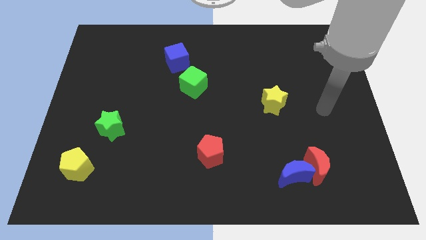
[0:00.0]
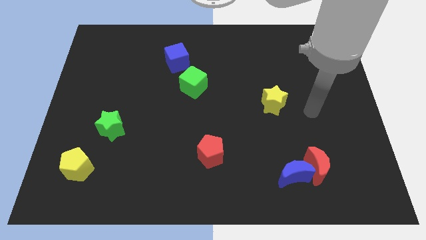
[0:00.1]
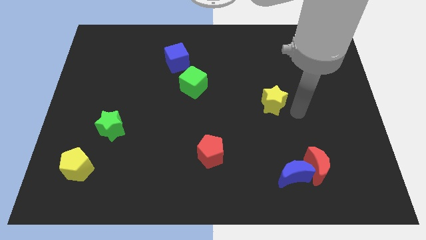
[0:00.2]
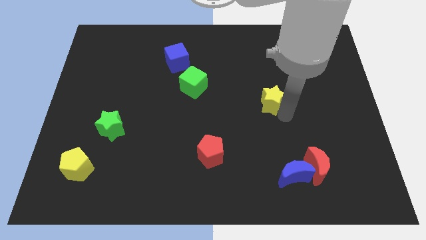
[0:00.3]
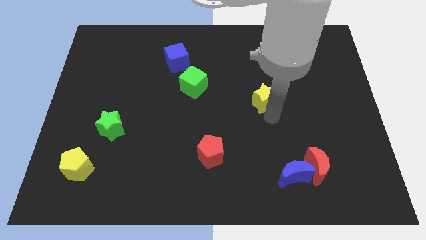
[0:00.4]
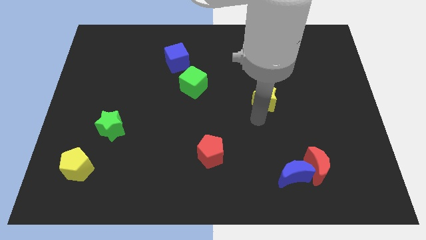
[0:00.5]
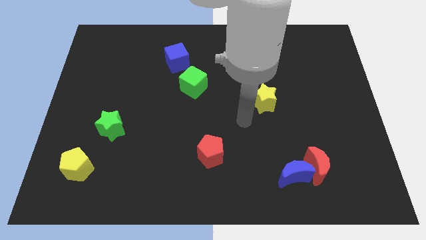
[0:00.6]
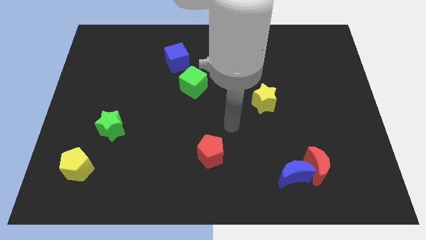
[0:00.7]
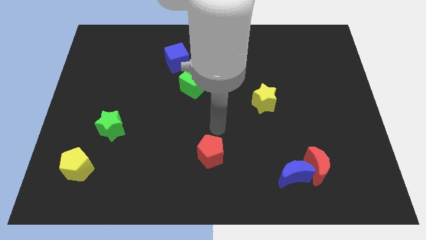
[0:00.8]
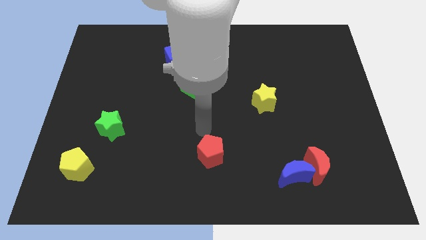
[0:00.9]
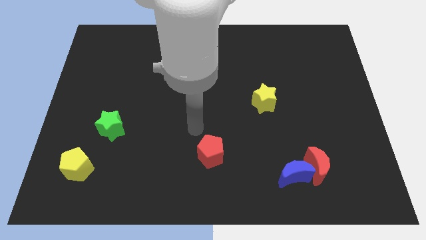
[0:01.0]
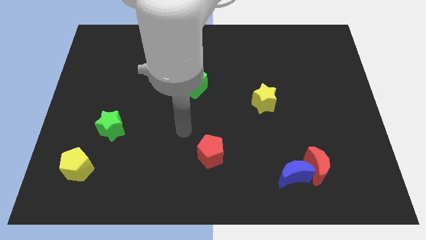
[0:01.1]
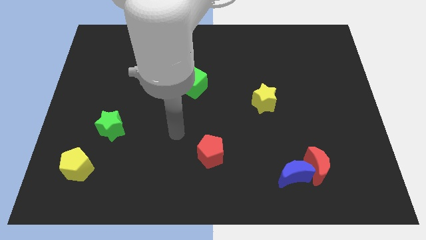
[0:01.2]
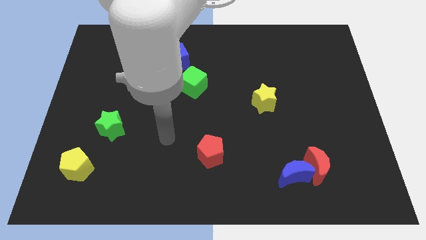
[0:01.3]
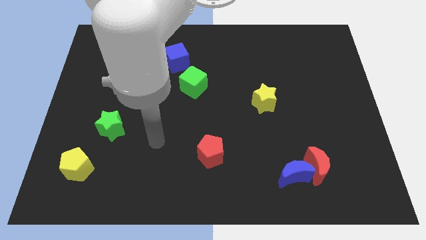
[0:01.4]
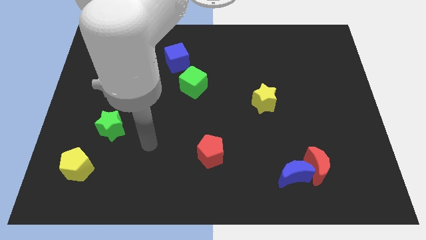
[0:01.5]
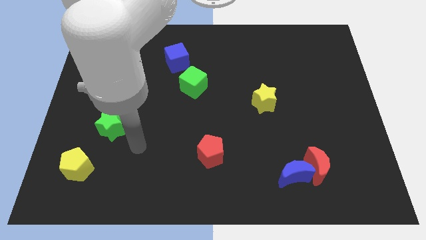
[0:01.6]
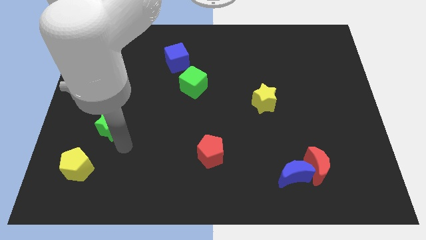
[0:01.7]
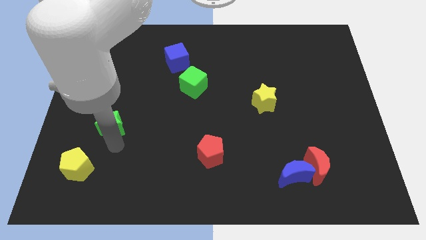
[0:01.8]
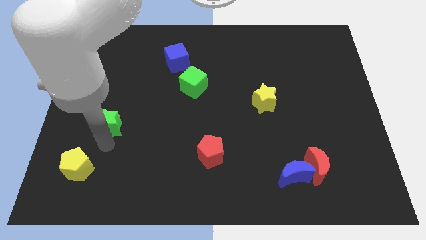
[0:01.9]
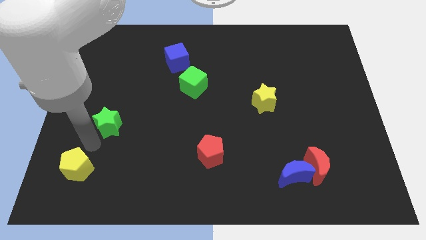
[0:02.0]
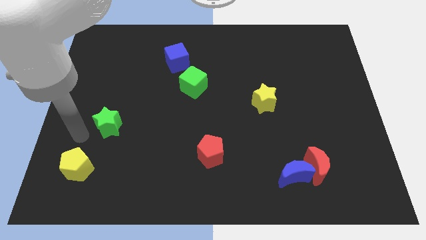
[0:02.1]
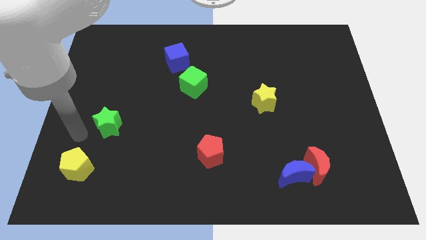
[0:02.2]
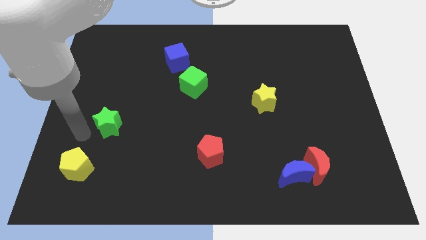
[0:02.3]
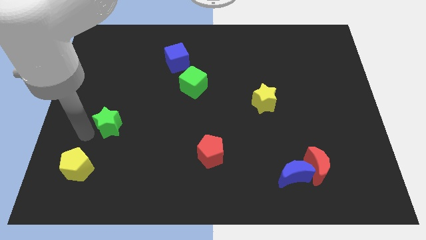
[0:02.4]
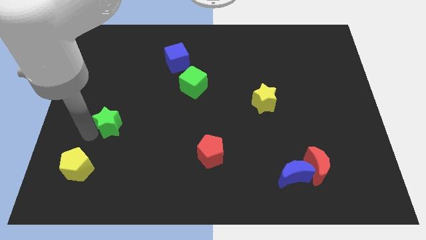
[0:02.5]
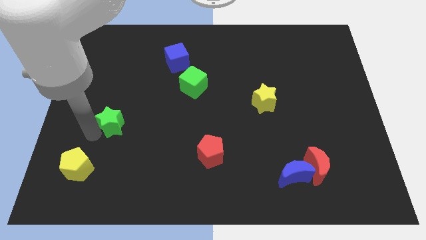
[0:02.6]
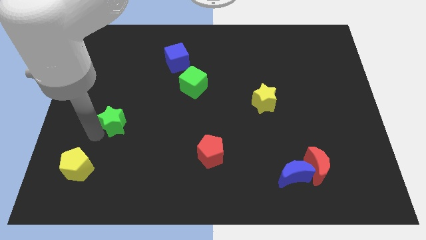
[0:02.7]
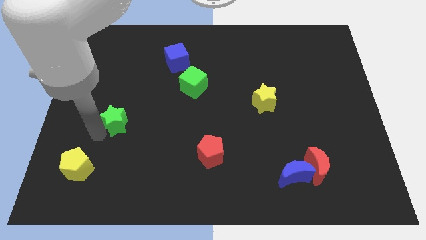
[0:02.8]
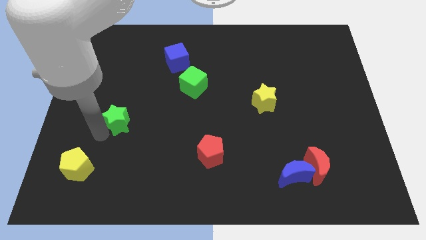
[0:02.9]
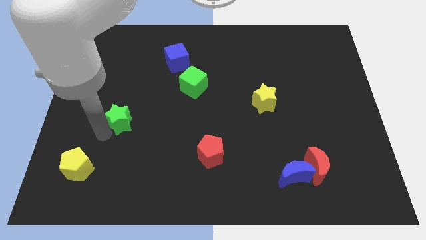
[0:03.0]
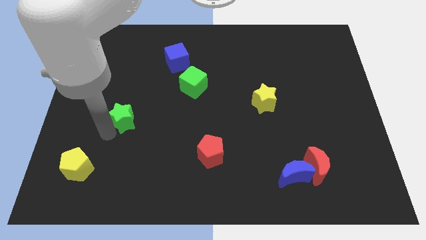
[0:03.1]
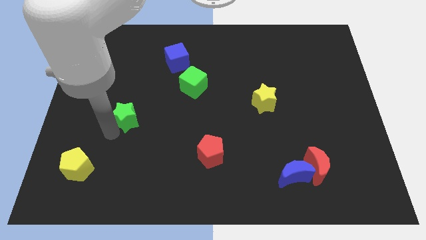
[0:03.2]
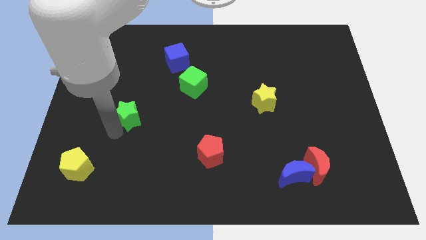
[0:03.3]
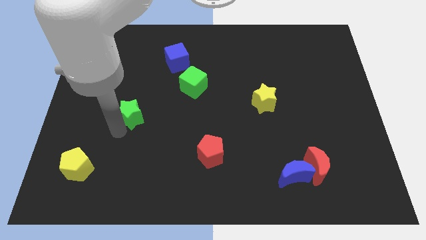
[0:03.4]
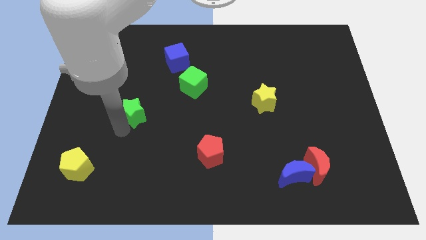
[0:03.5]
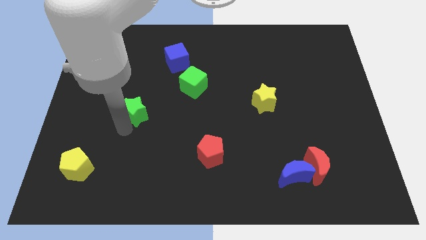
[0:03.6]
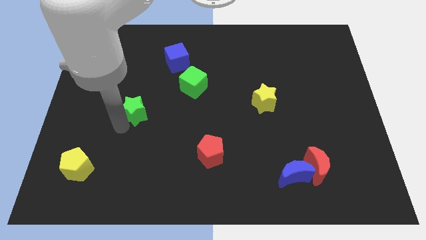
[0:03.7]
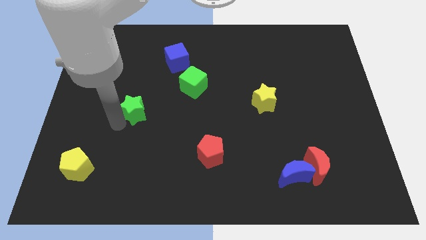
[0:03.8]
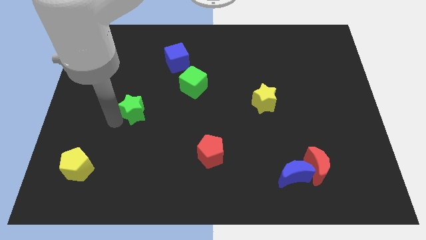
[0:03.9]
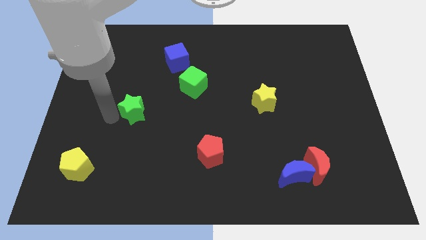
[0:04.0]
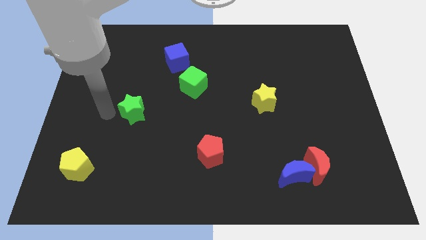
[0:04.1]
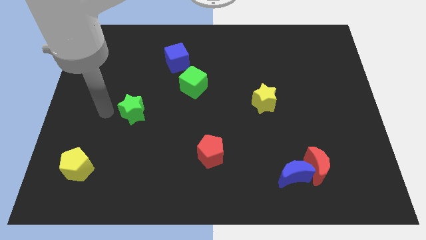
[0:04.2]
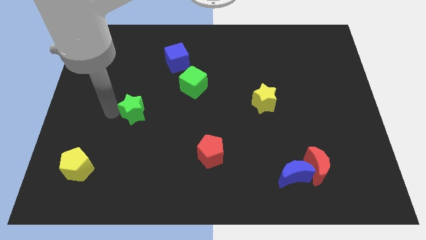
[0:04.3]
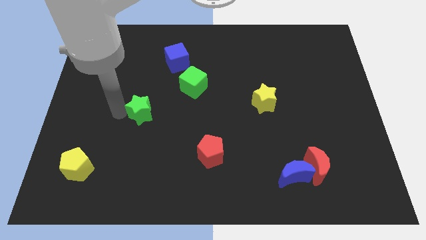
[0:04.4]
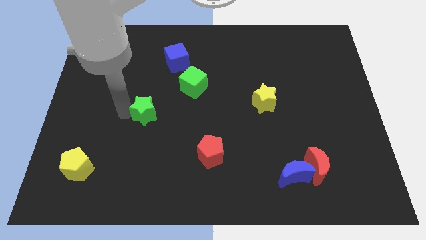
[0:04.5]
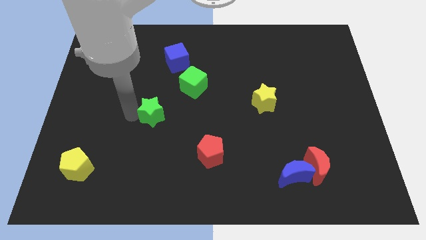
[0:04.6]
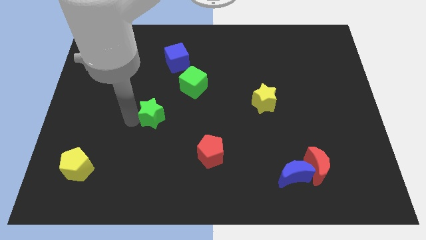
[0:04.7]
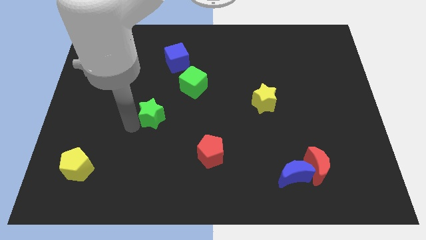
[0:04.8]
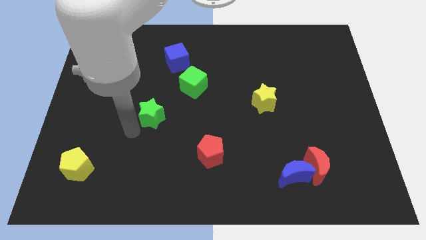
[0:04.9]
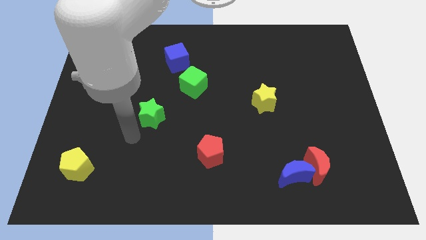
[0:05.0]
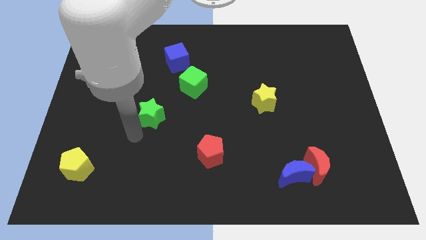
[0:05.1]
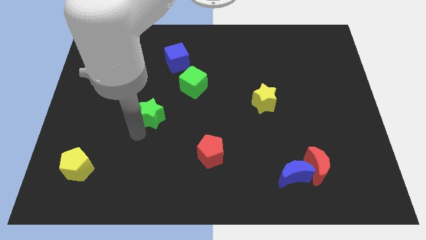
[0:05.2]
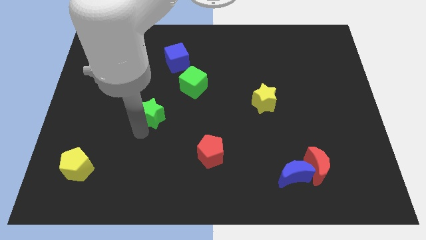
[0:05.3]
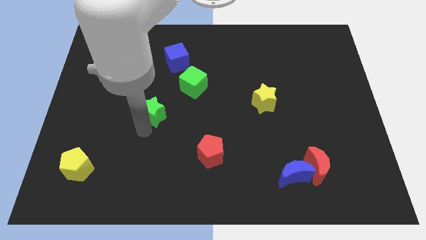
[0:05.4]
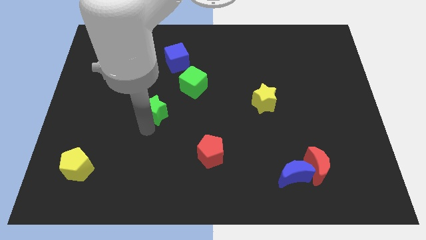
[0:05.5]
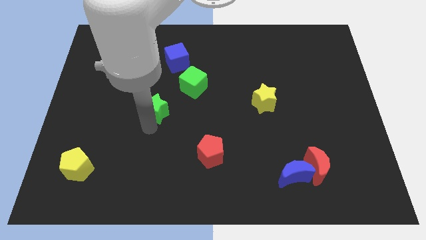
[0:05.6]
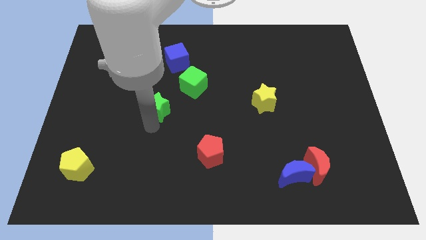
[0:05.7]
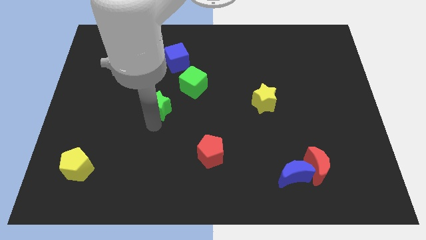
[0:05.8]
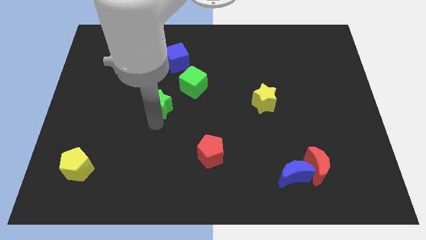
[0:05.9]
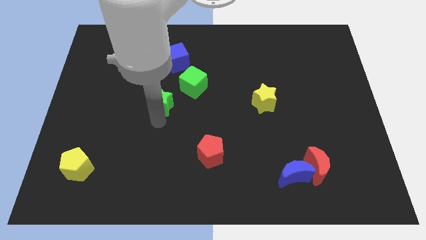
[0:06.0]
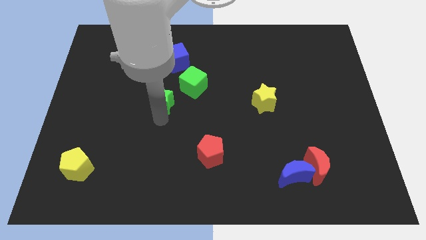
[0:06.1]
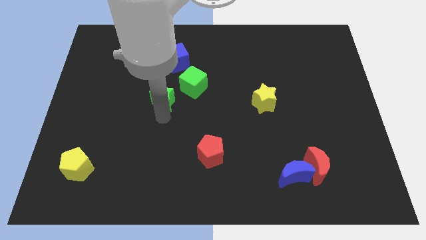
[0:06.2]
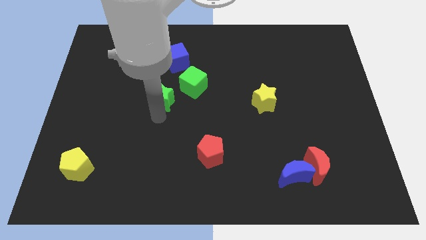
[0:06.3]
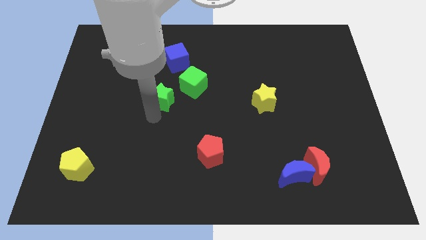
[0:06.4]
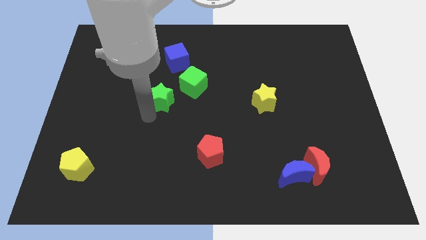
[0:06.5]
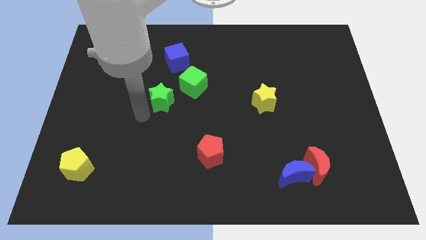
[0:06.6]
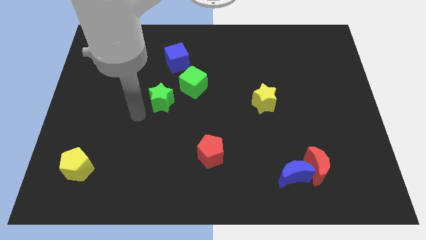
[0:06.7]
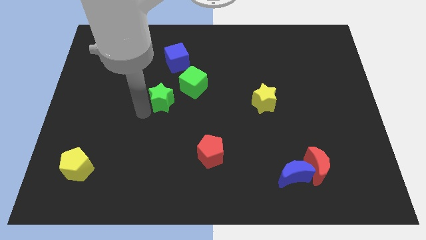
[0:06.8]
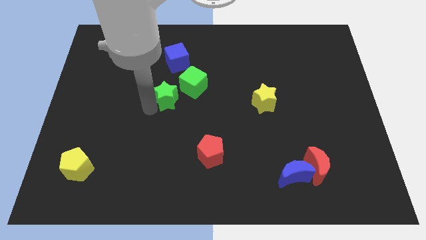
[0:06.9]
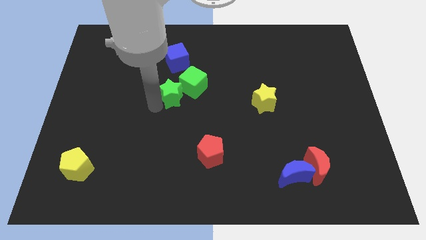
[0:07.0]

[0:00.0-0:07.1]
slide the green star next to the green cube

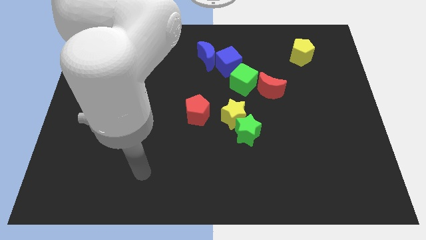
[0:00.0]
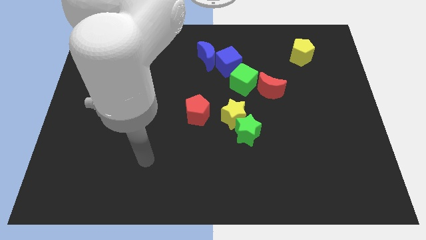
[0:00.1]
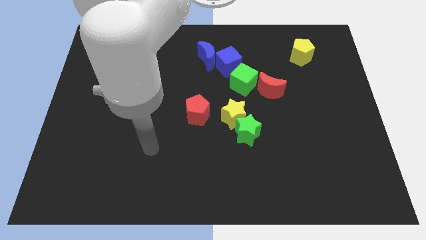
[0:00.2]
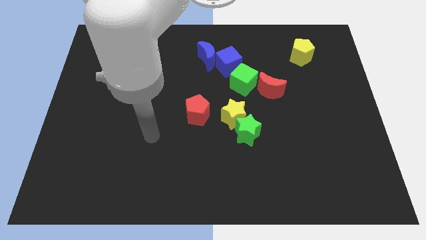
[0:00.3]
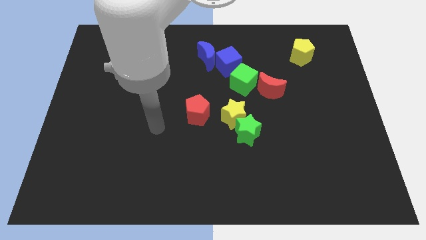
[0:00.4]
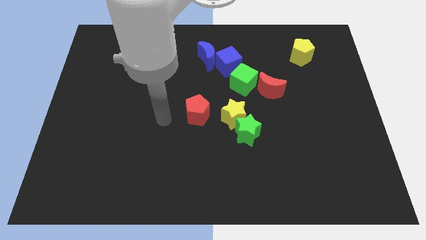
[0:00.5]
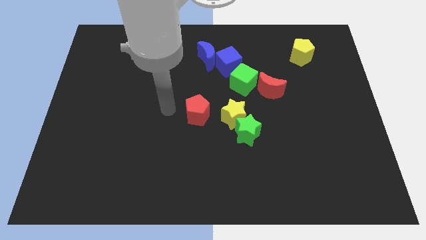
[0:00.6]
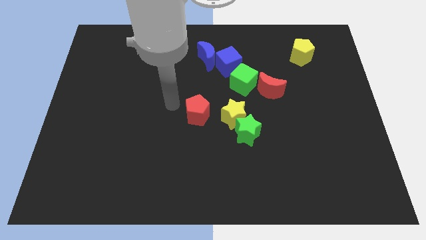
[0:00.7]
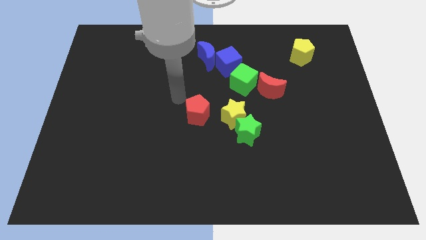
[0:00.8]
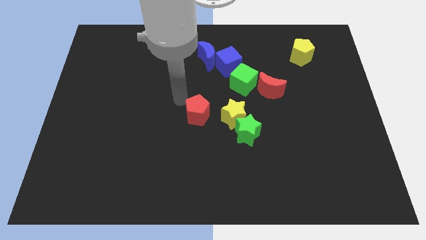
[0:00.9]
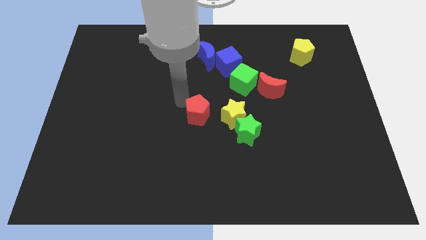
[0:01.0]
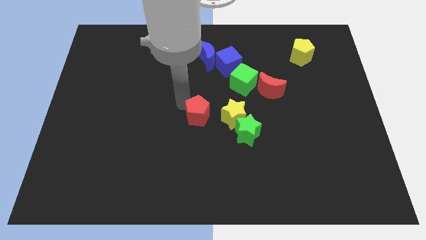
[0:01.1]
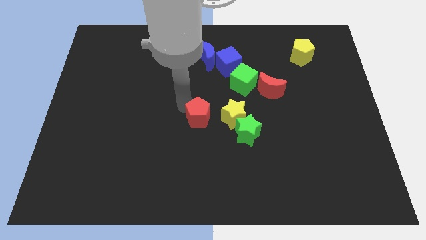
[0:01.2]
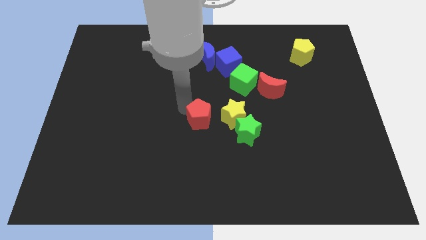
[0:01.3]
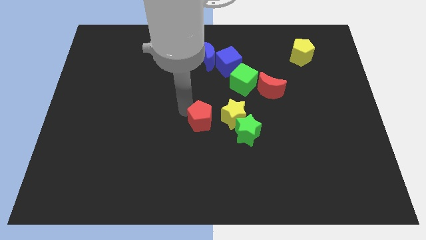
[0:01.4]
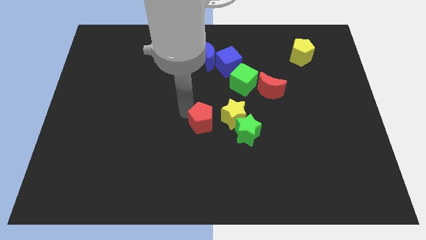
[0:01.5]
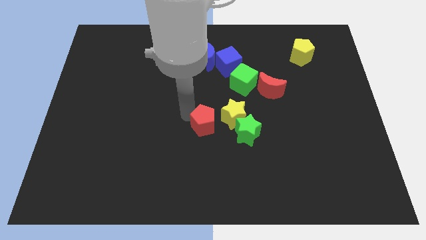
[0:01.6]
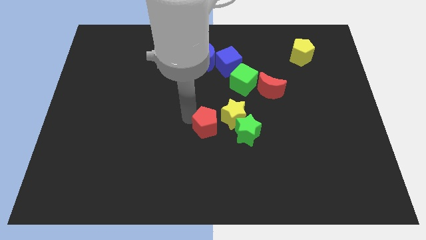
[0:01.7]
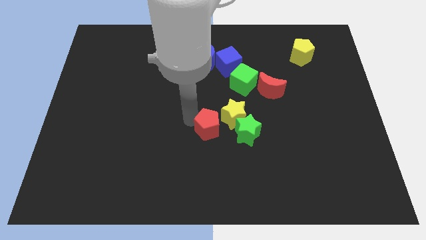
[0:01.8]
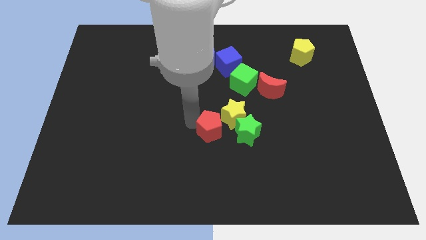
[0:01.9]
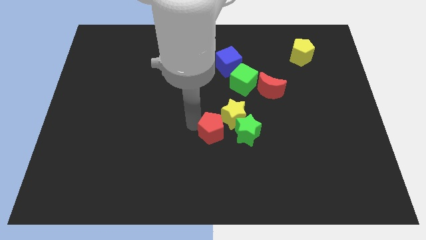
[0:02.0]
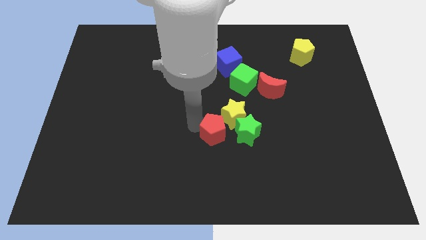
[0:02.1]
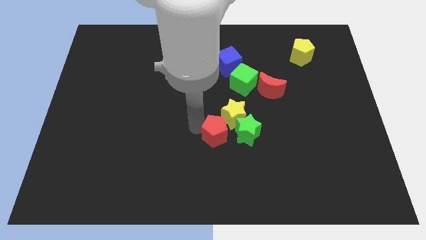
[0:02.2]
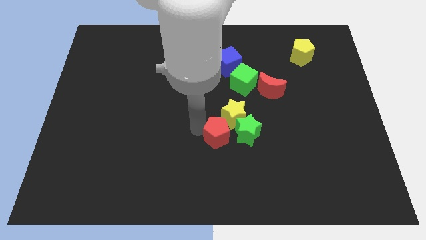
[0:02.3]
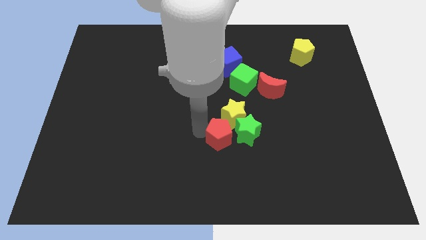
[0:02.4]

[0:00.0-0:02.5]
slide the red pentagon next to the green star
